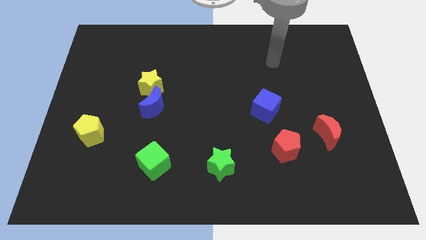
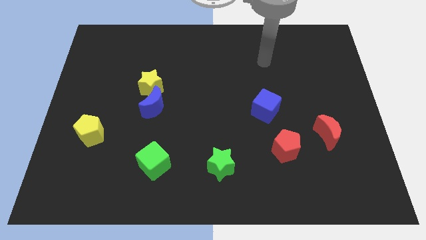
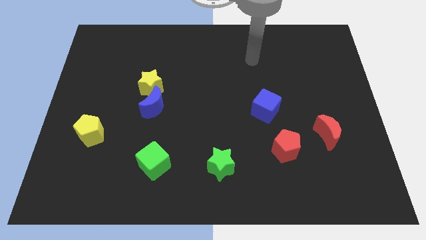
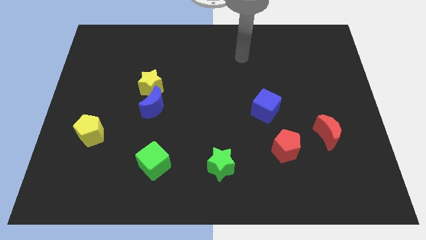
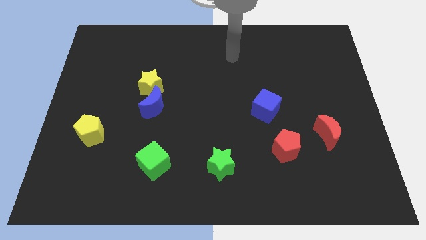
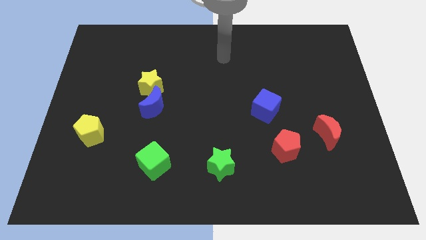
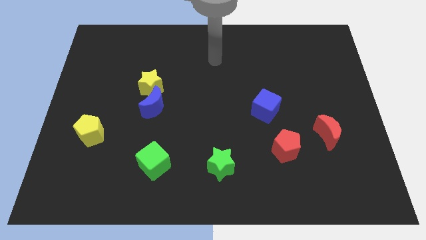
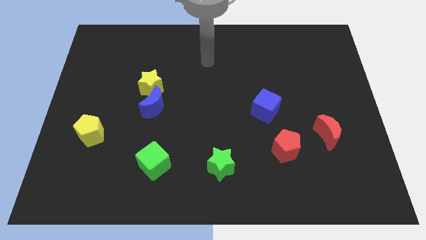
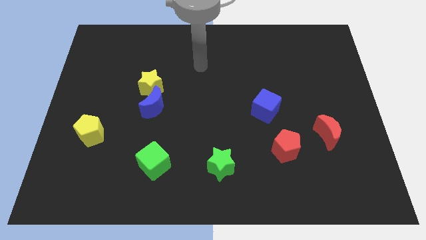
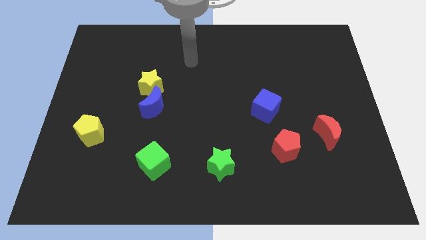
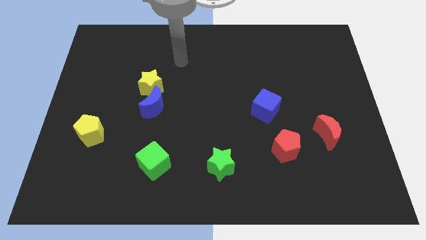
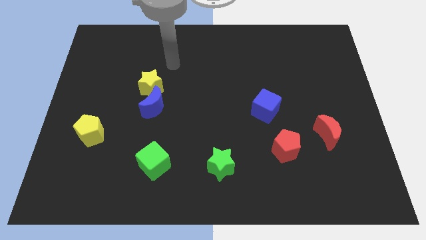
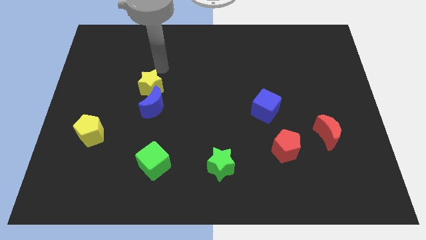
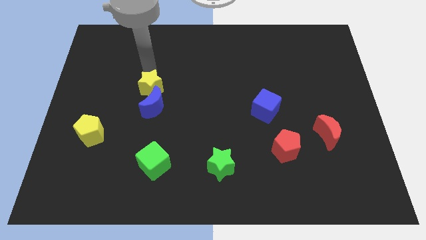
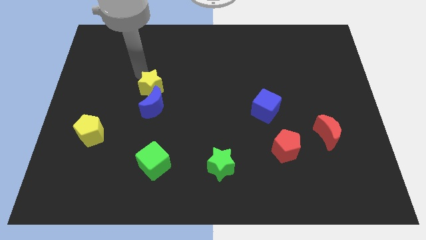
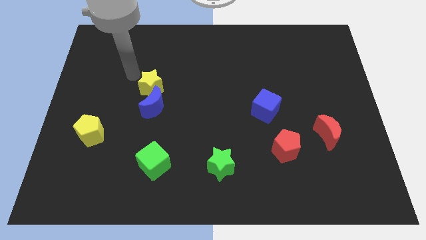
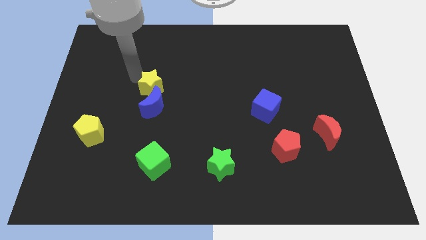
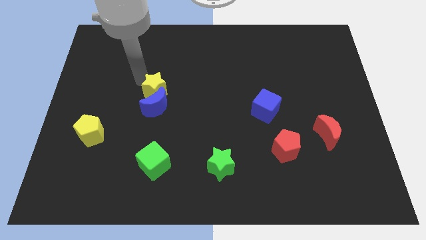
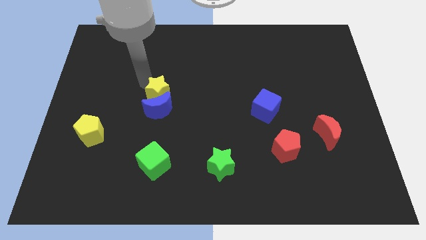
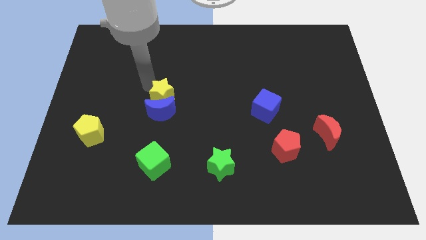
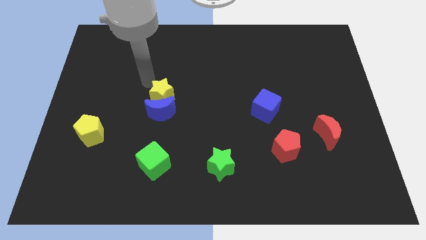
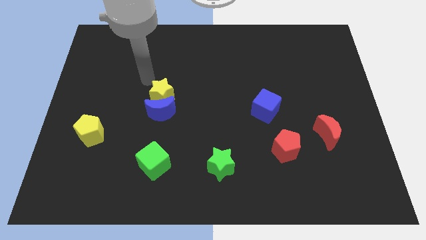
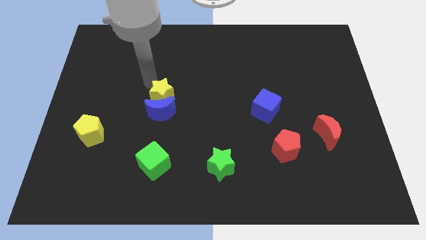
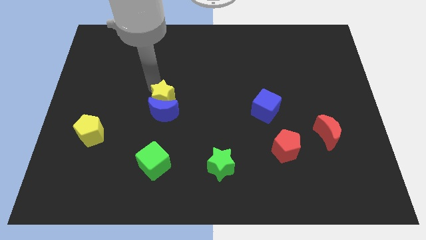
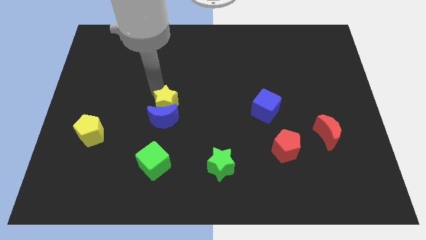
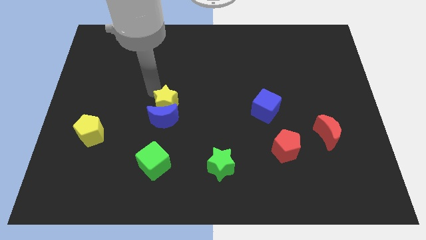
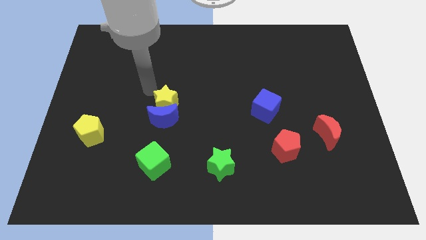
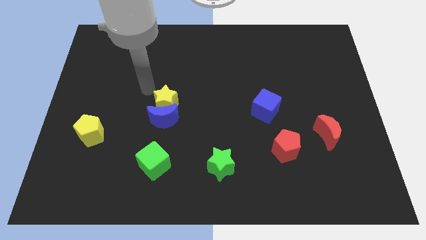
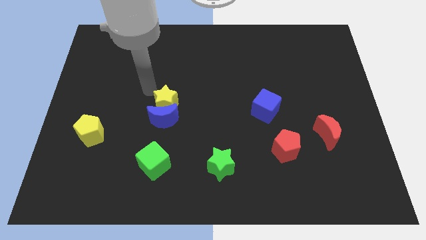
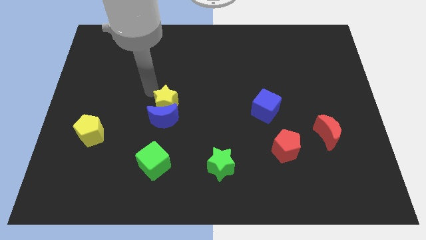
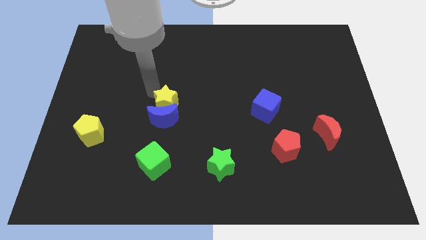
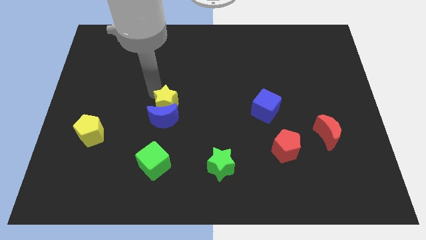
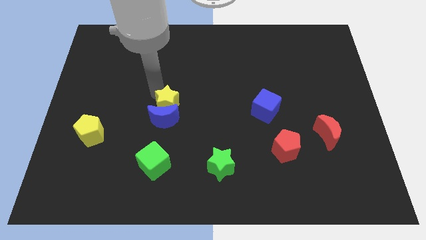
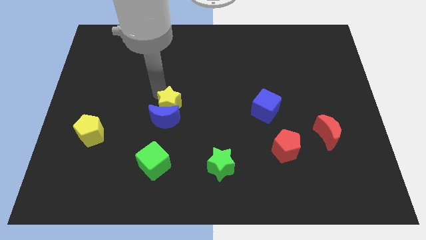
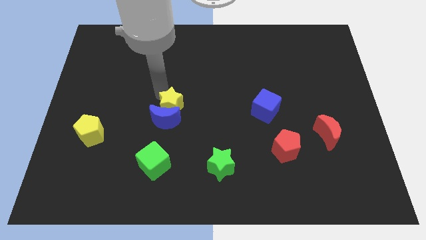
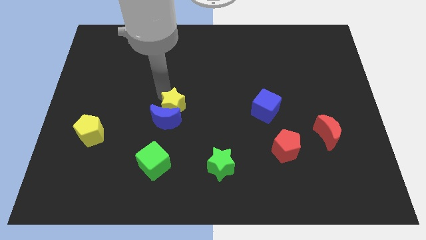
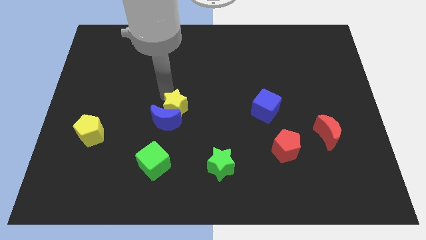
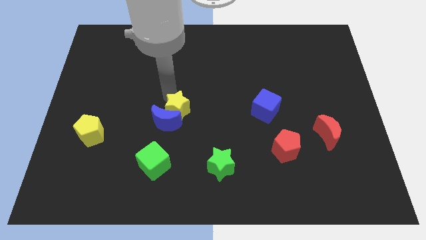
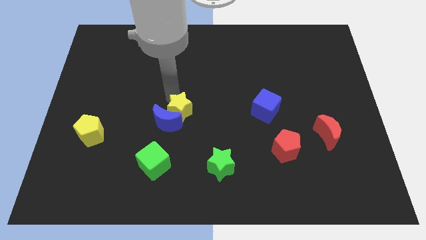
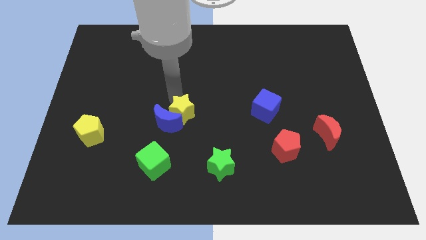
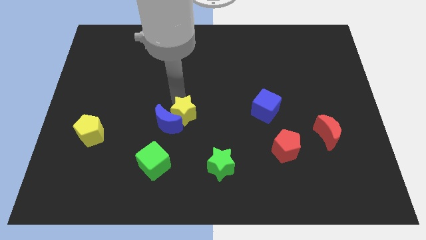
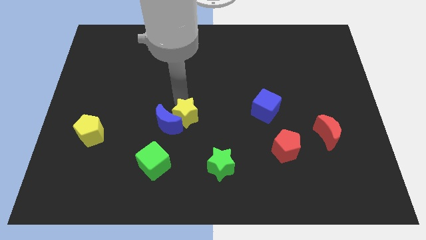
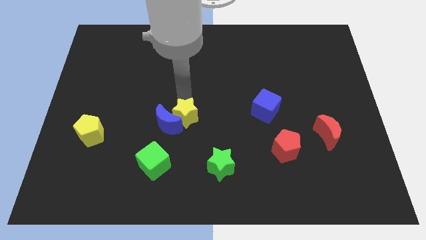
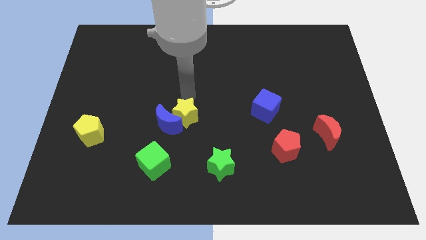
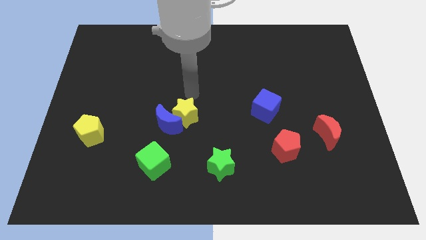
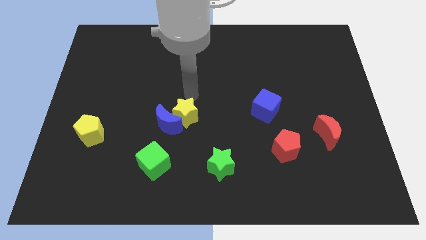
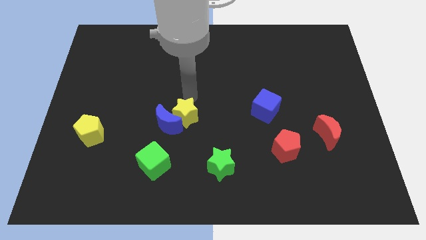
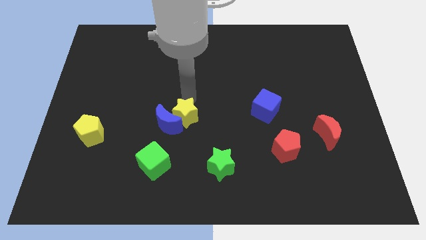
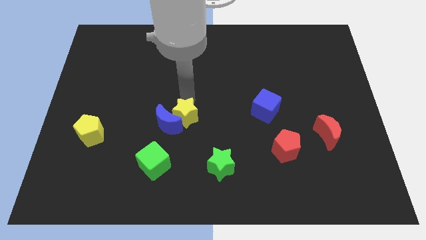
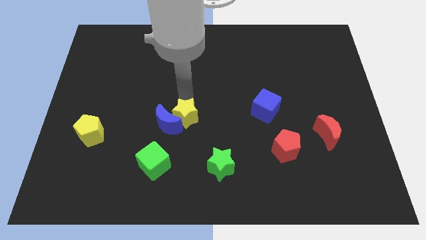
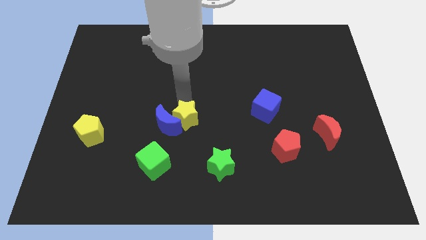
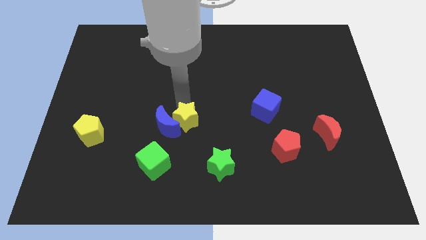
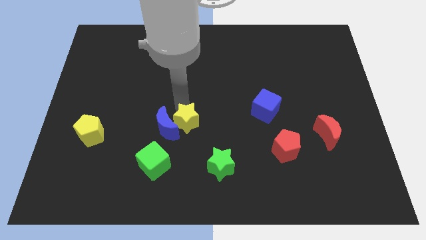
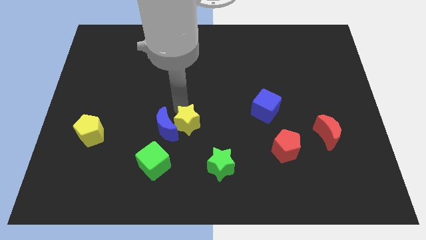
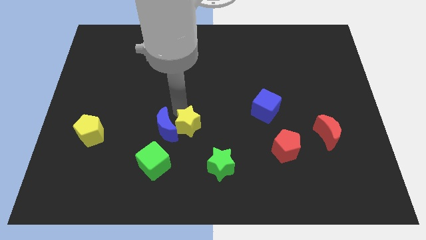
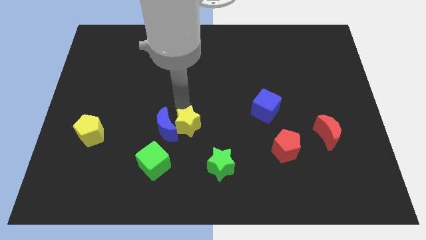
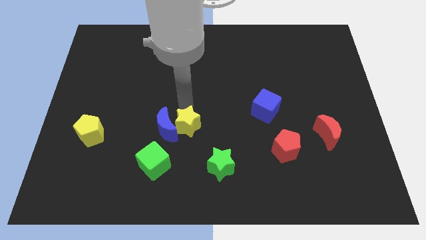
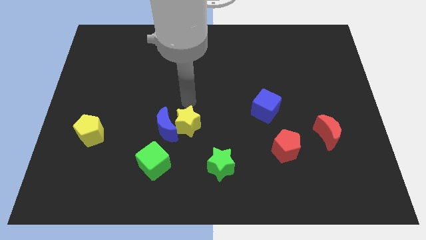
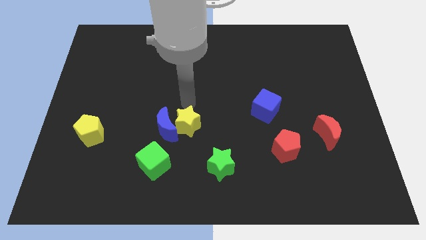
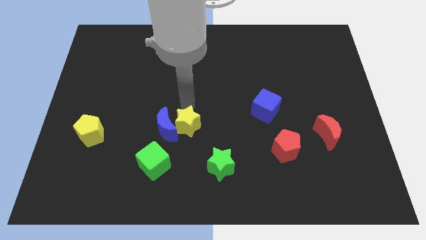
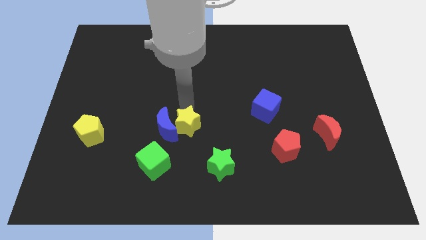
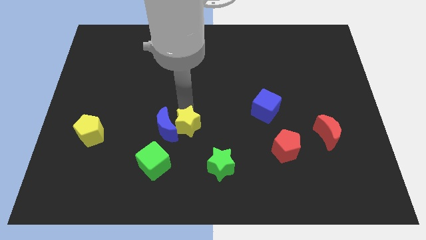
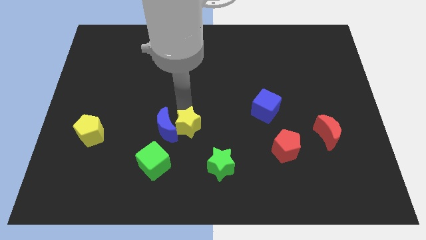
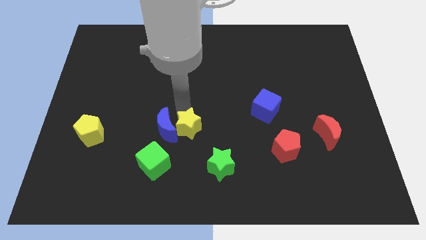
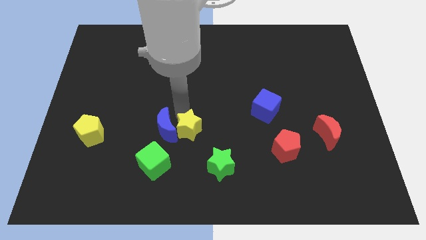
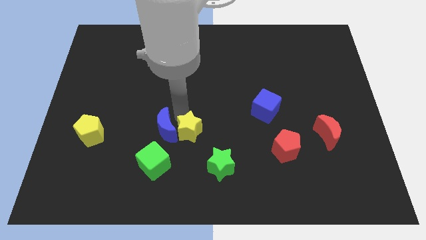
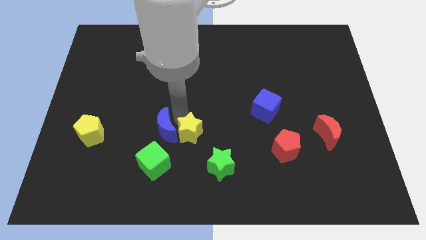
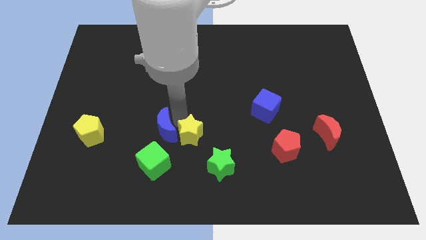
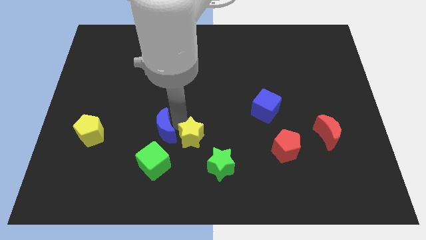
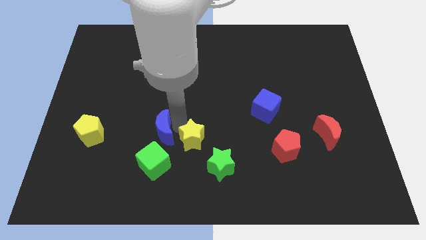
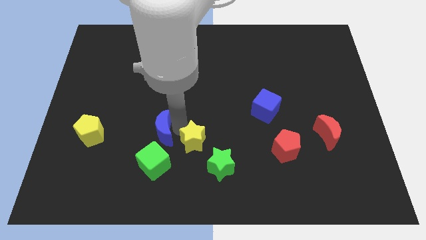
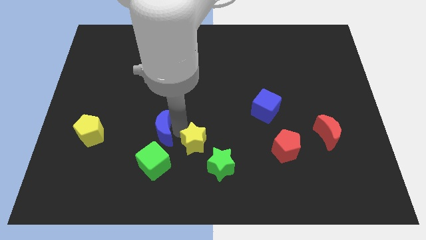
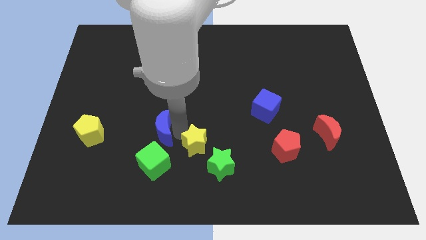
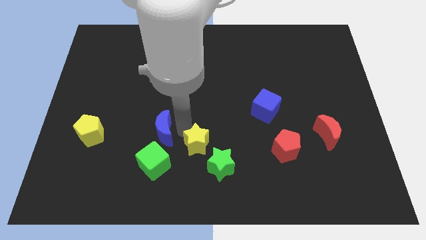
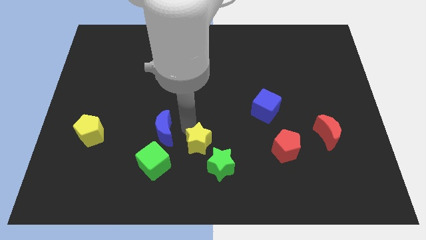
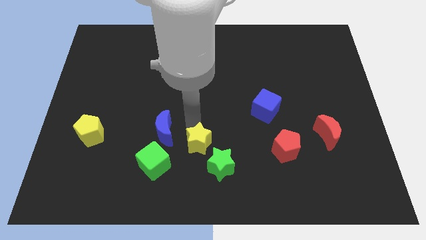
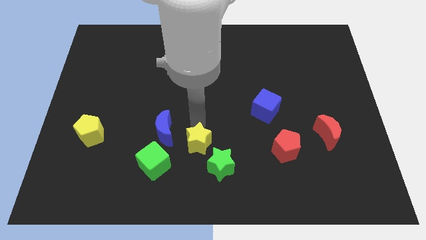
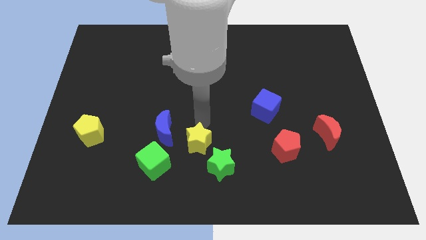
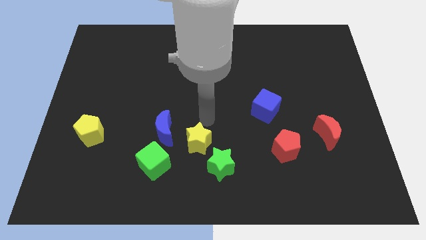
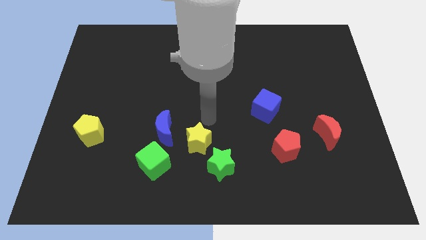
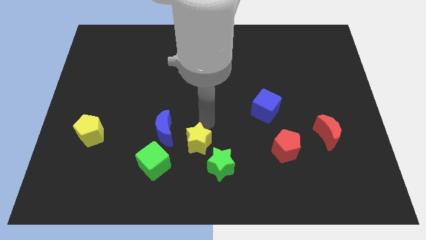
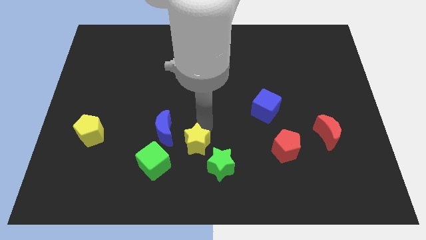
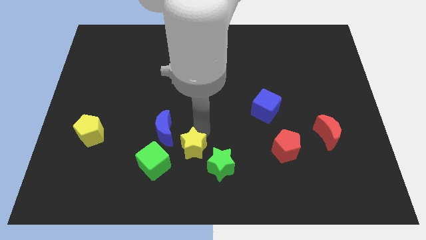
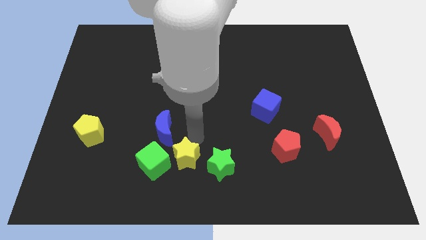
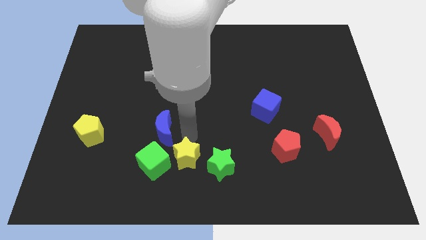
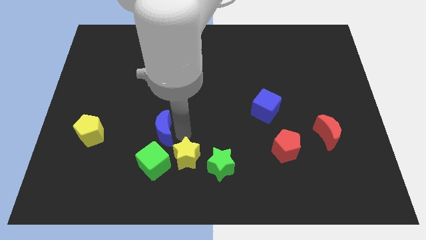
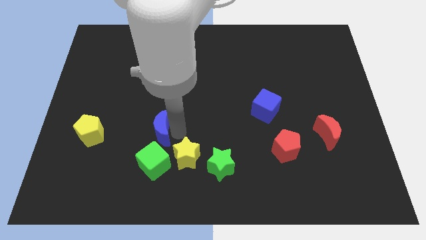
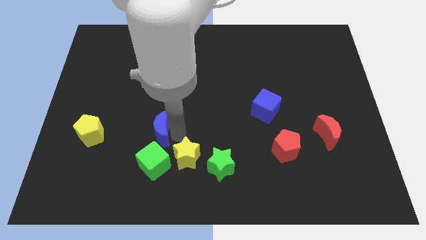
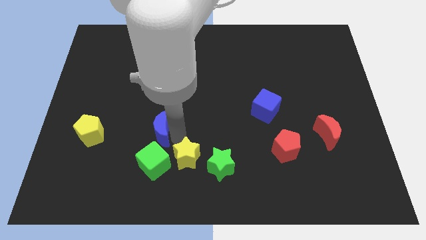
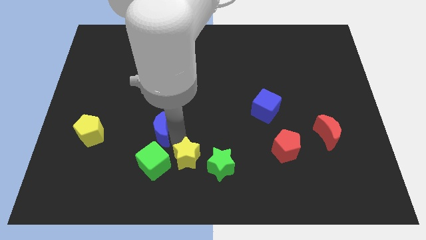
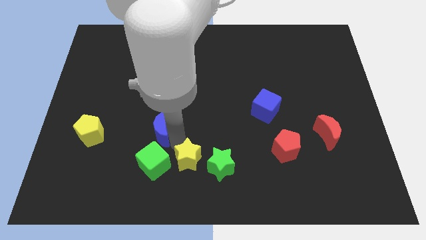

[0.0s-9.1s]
push the yellow star to the bottom
